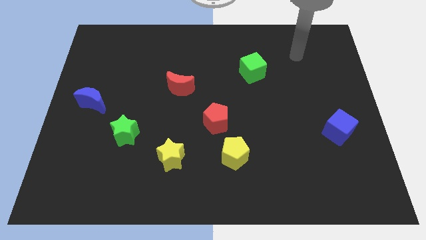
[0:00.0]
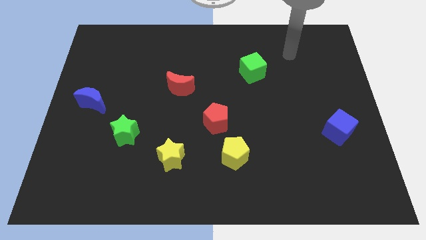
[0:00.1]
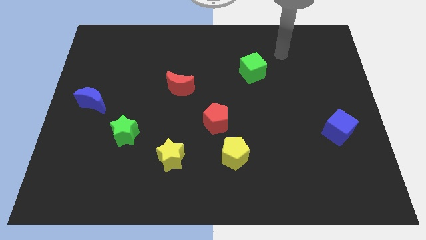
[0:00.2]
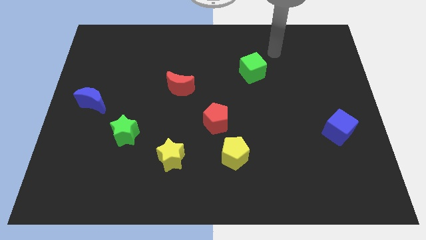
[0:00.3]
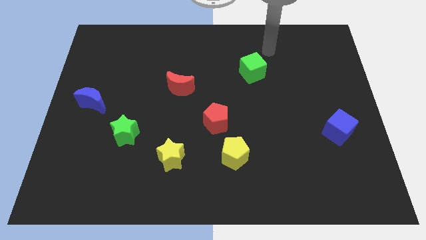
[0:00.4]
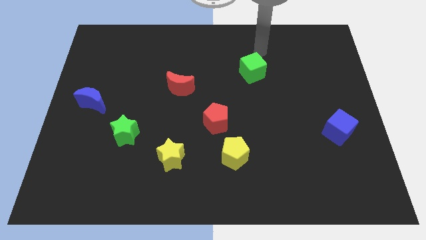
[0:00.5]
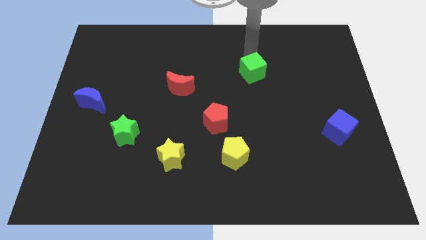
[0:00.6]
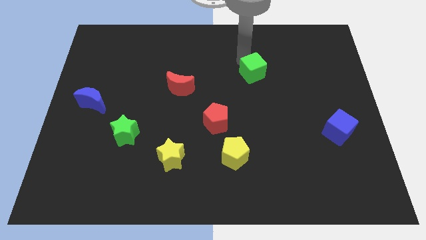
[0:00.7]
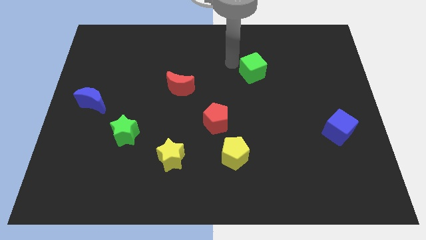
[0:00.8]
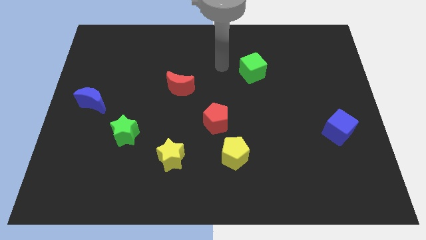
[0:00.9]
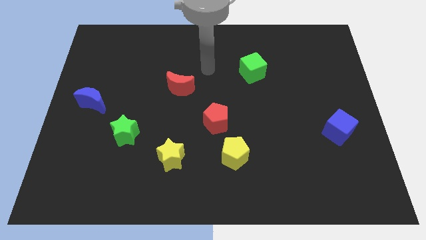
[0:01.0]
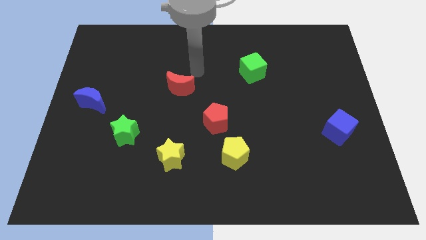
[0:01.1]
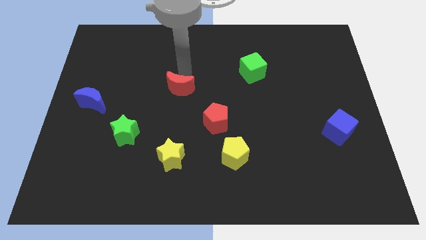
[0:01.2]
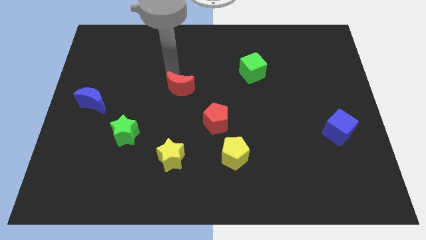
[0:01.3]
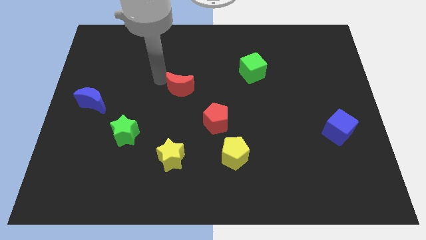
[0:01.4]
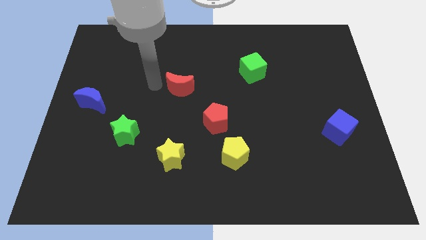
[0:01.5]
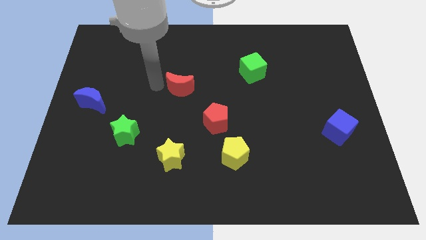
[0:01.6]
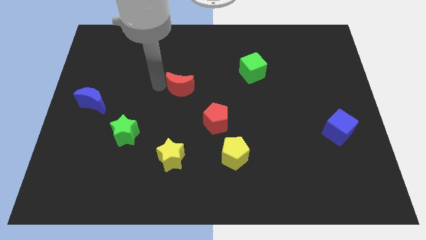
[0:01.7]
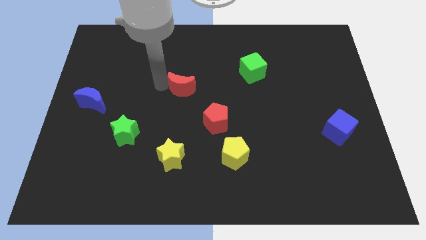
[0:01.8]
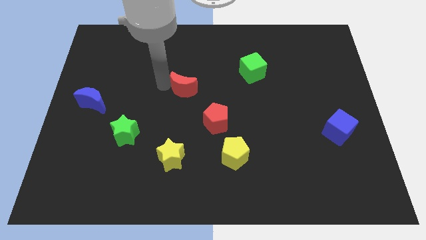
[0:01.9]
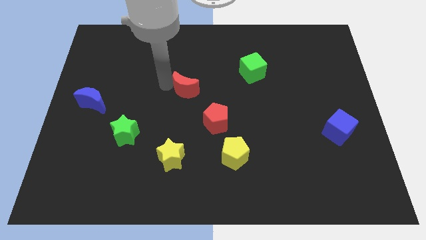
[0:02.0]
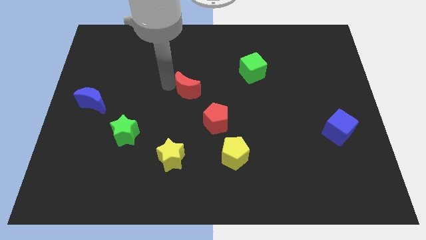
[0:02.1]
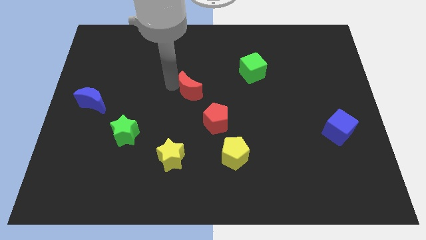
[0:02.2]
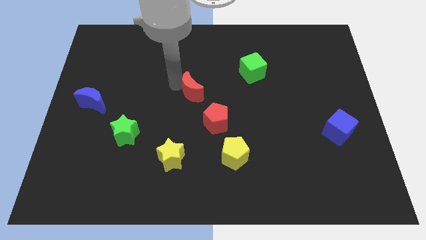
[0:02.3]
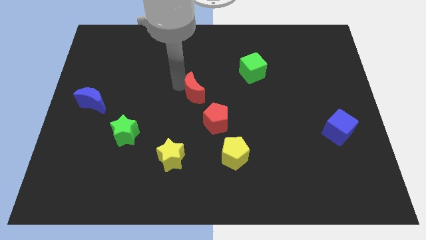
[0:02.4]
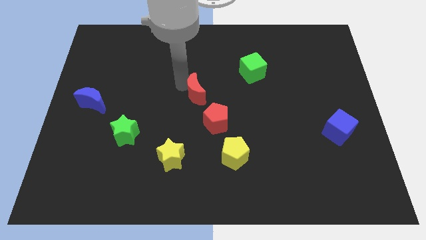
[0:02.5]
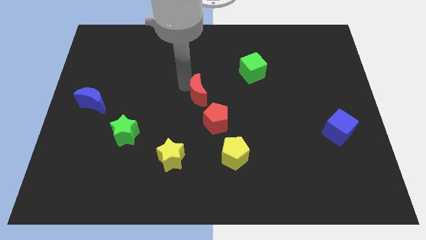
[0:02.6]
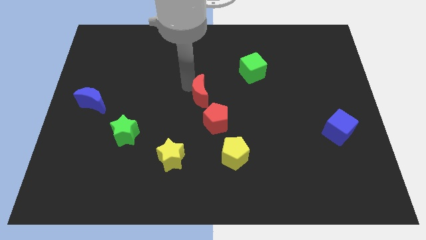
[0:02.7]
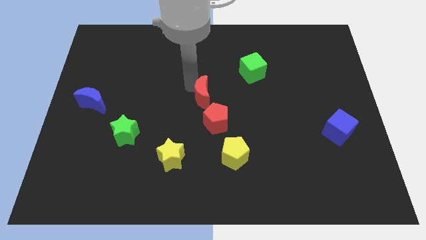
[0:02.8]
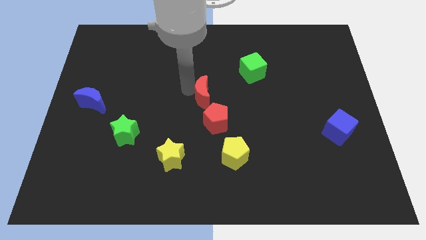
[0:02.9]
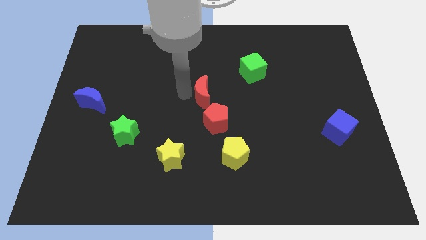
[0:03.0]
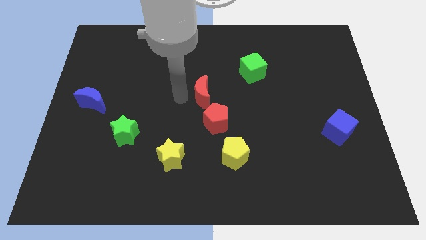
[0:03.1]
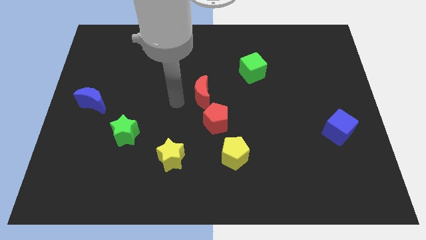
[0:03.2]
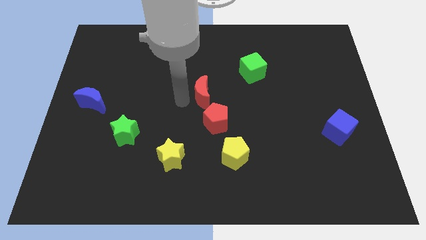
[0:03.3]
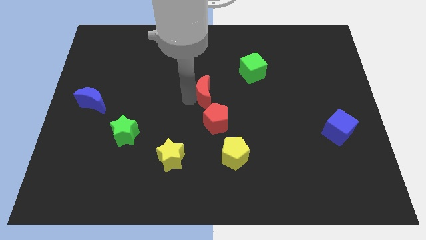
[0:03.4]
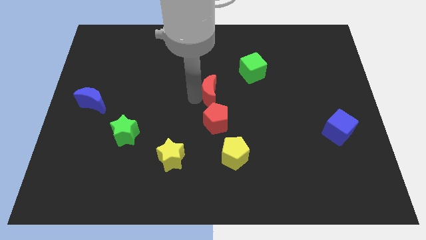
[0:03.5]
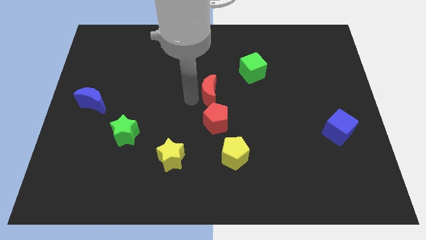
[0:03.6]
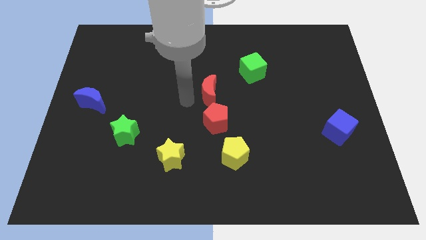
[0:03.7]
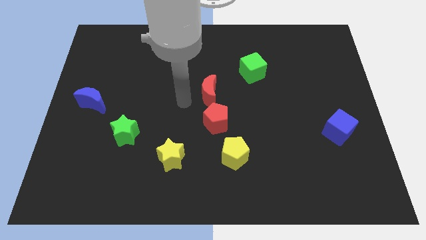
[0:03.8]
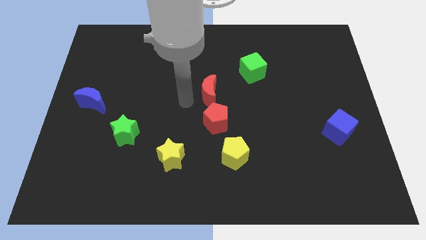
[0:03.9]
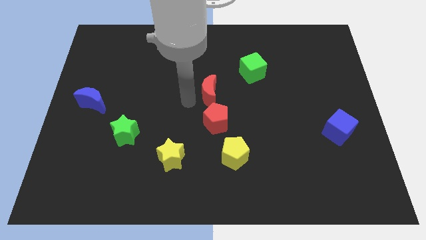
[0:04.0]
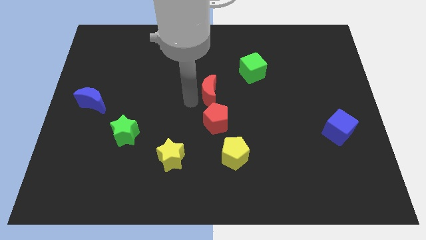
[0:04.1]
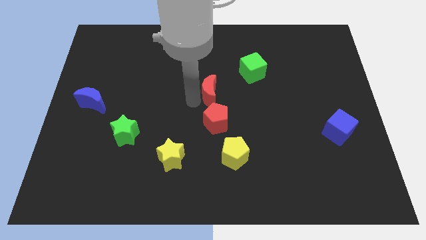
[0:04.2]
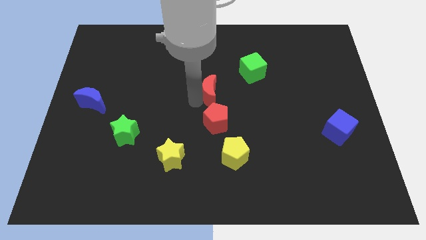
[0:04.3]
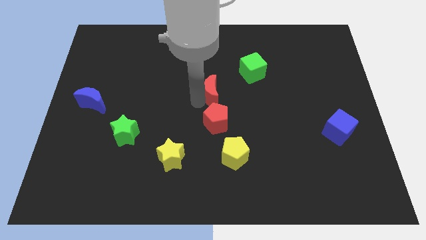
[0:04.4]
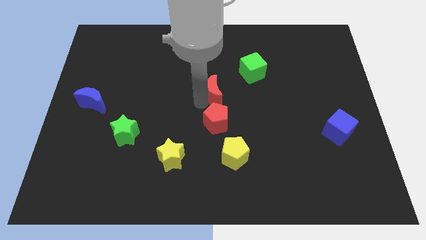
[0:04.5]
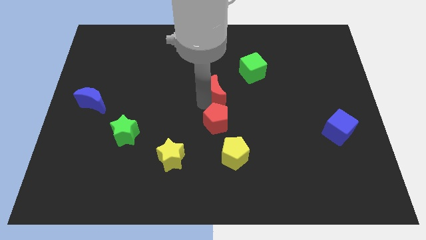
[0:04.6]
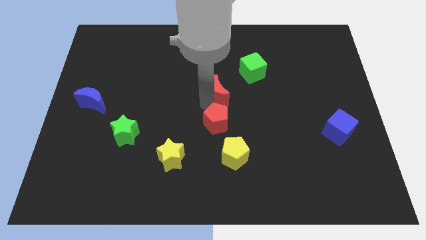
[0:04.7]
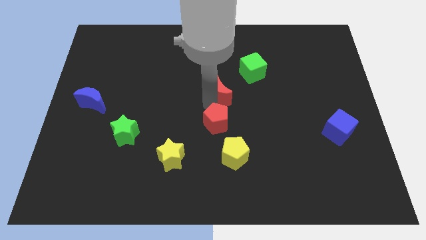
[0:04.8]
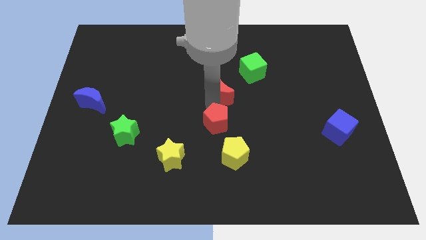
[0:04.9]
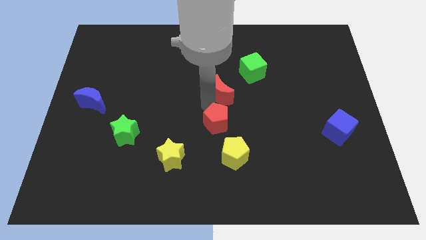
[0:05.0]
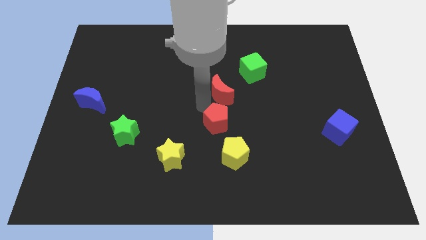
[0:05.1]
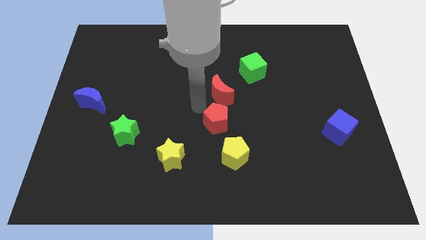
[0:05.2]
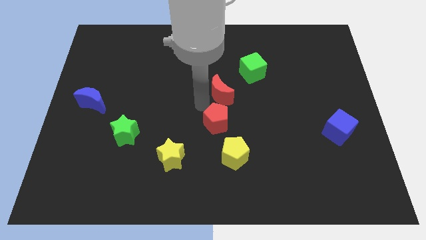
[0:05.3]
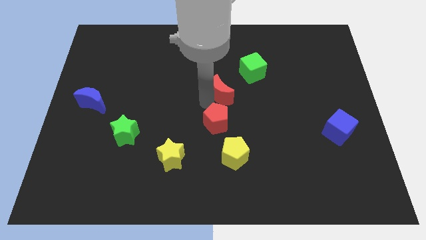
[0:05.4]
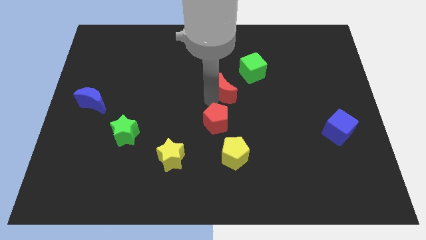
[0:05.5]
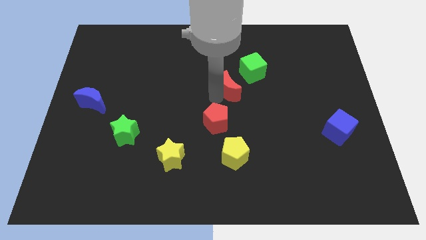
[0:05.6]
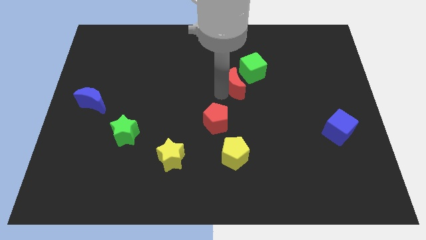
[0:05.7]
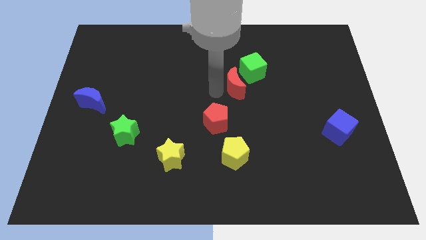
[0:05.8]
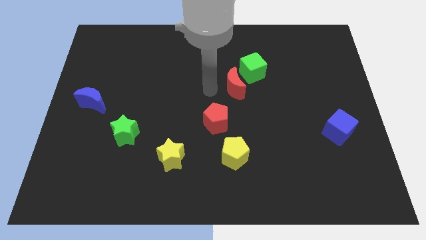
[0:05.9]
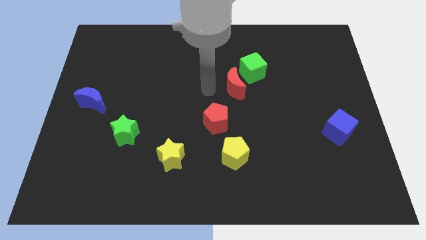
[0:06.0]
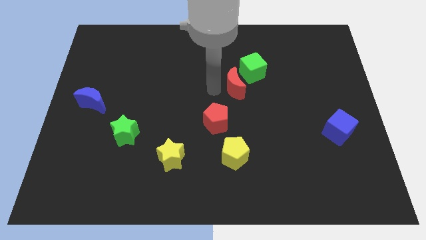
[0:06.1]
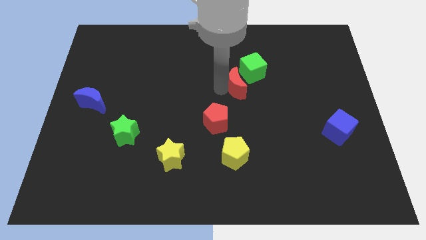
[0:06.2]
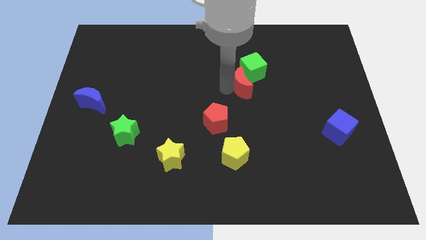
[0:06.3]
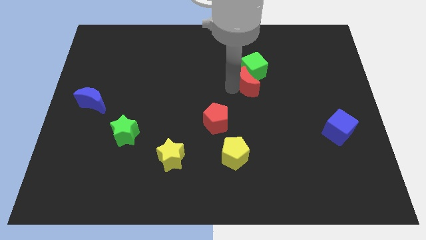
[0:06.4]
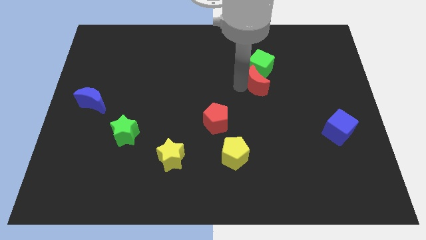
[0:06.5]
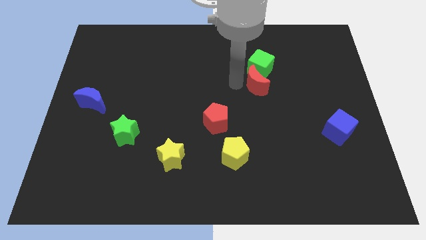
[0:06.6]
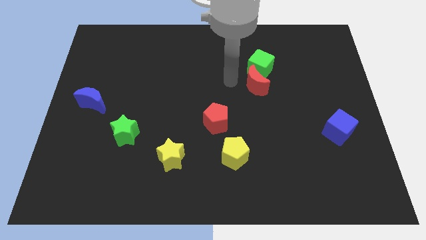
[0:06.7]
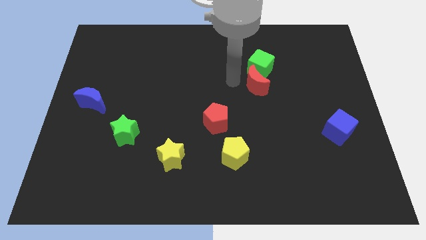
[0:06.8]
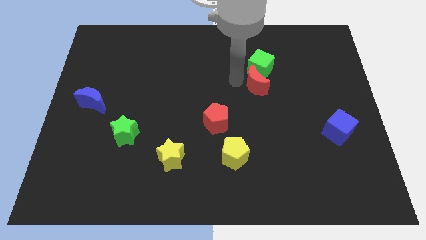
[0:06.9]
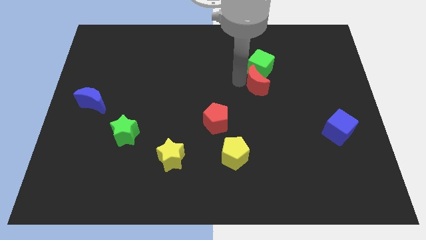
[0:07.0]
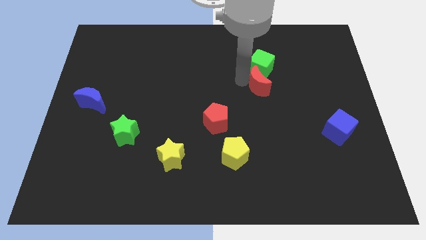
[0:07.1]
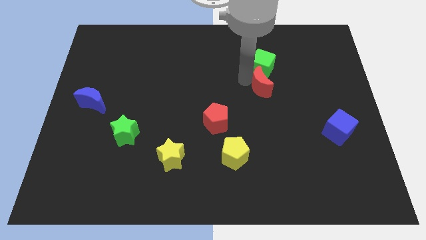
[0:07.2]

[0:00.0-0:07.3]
slide the red moon right

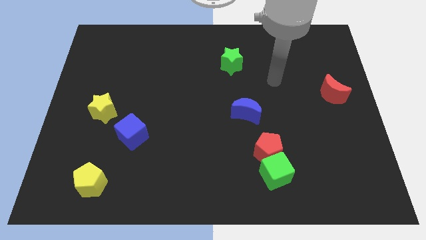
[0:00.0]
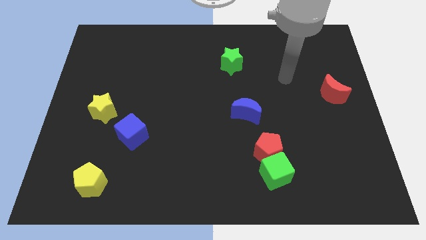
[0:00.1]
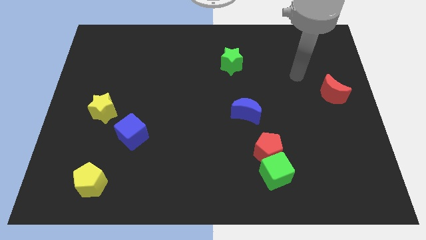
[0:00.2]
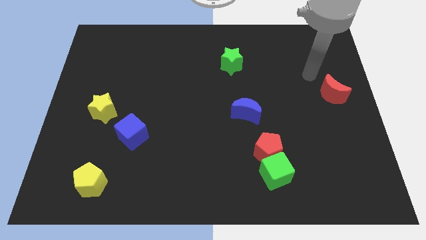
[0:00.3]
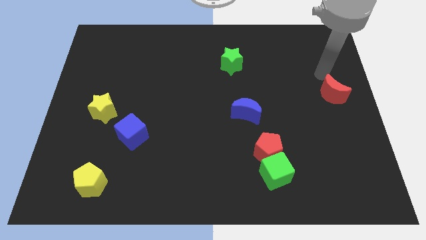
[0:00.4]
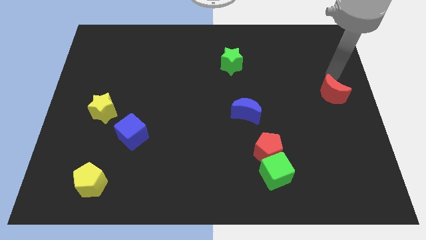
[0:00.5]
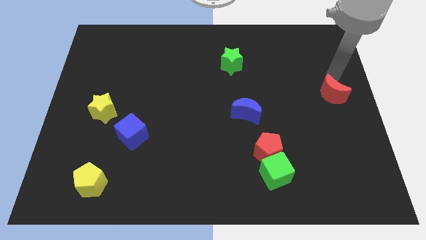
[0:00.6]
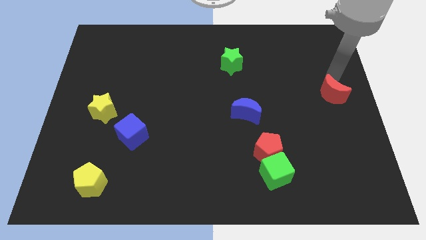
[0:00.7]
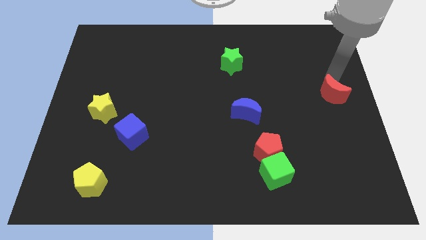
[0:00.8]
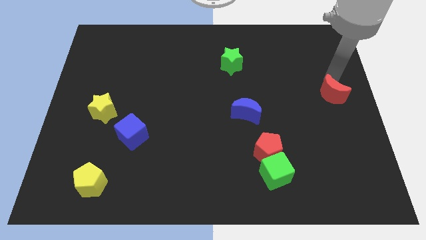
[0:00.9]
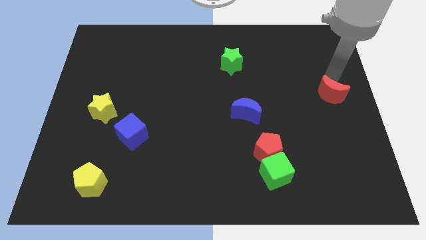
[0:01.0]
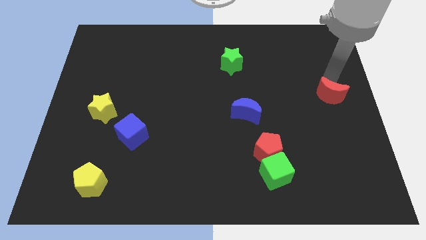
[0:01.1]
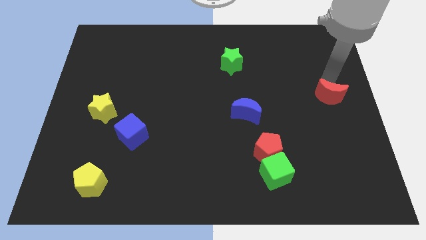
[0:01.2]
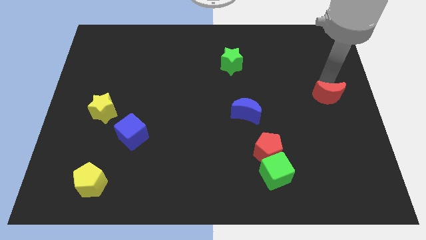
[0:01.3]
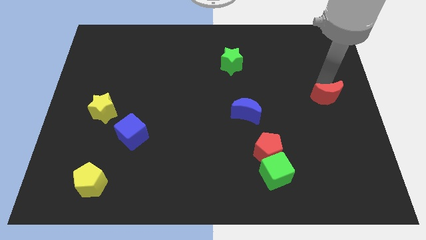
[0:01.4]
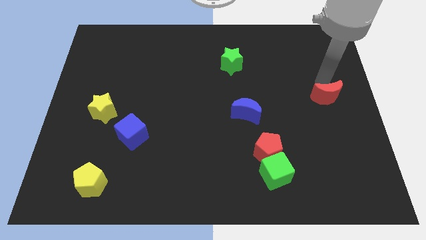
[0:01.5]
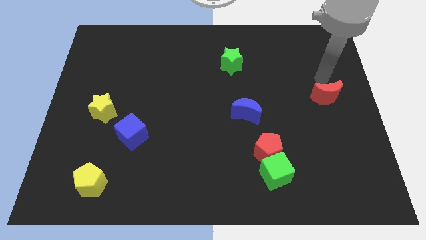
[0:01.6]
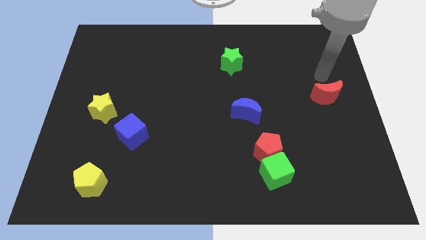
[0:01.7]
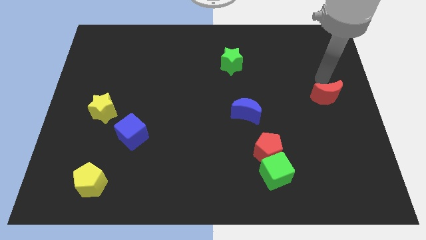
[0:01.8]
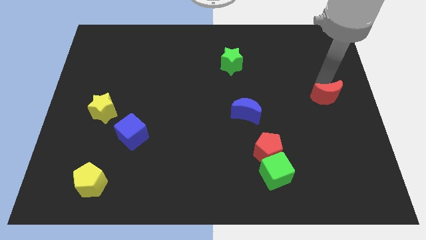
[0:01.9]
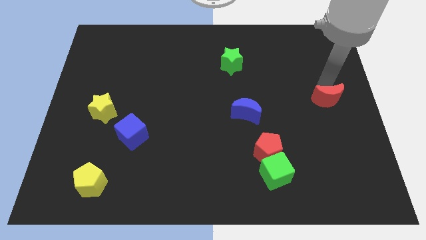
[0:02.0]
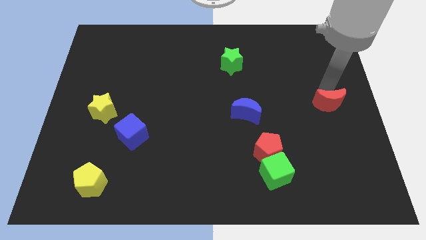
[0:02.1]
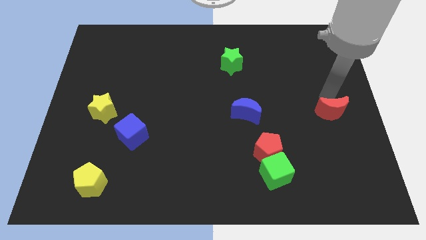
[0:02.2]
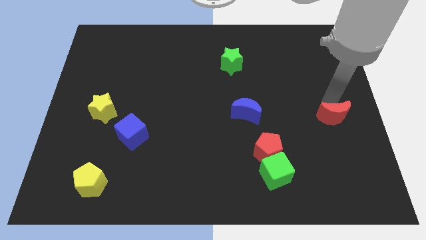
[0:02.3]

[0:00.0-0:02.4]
slightly slide the red moon downwards
